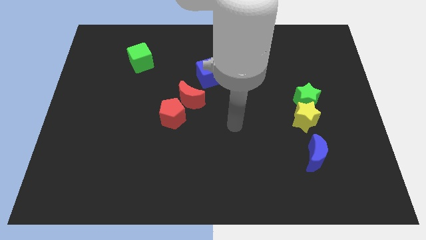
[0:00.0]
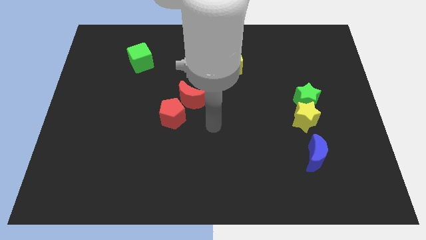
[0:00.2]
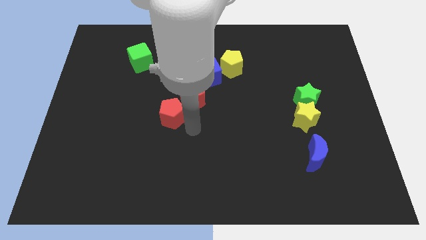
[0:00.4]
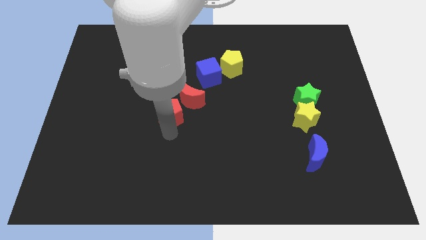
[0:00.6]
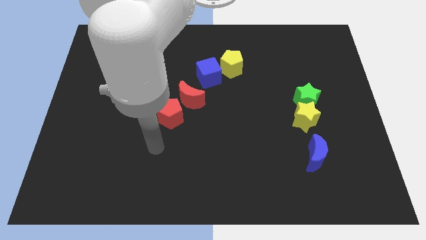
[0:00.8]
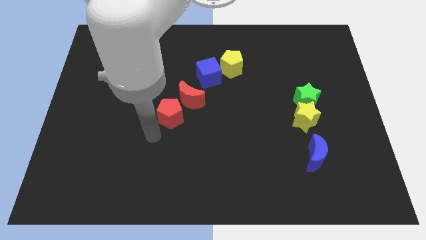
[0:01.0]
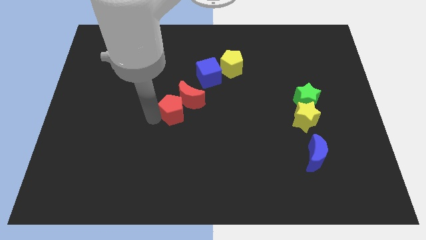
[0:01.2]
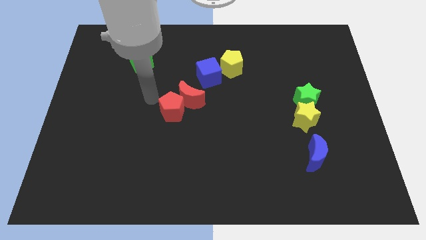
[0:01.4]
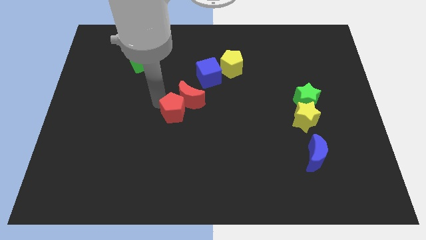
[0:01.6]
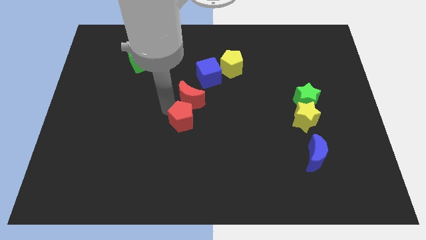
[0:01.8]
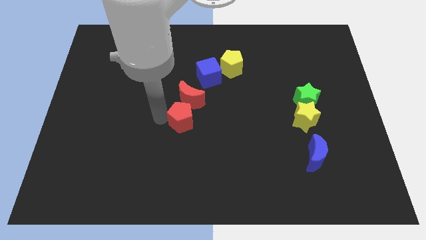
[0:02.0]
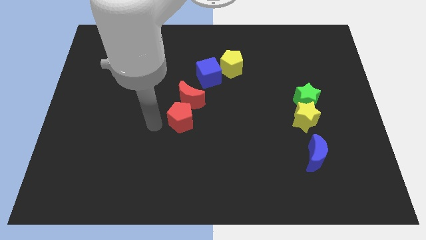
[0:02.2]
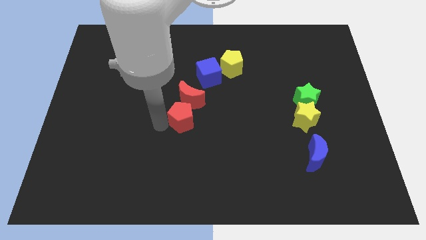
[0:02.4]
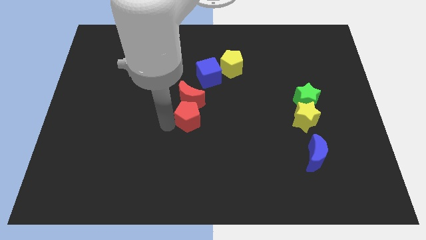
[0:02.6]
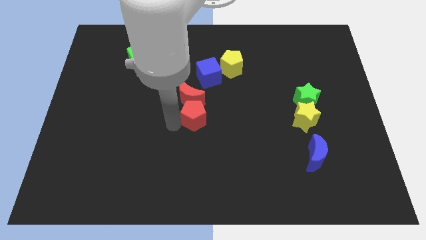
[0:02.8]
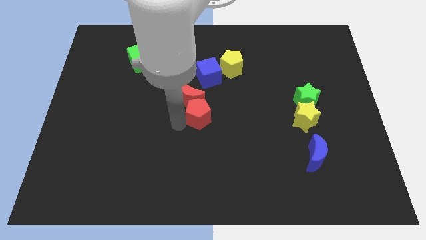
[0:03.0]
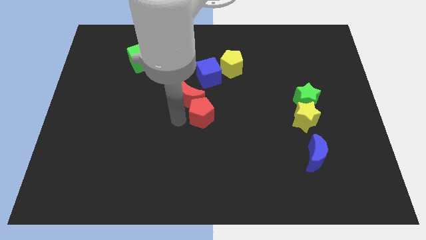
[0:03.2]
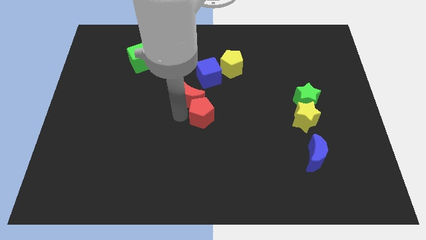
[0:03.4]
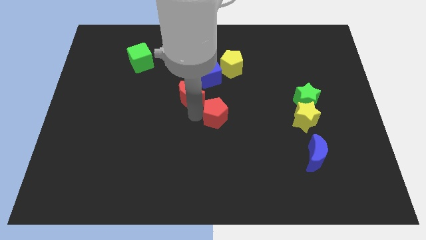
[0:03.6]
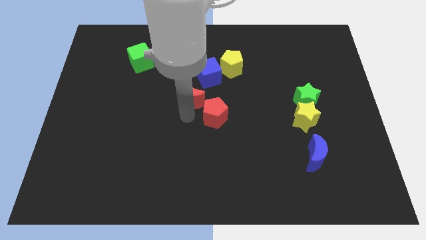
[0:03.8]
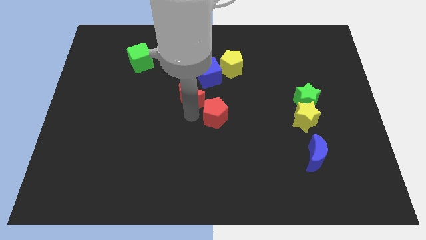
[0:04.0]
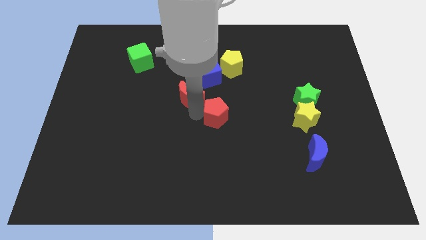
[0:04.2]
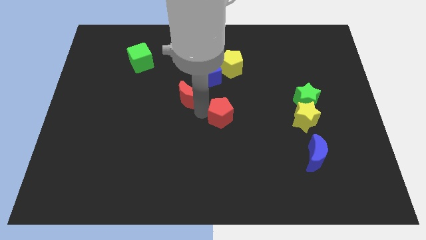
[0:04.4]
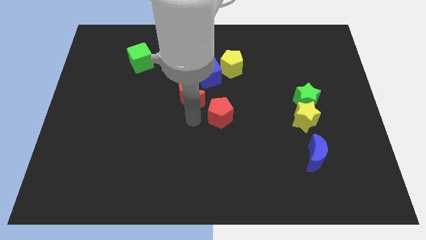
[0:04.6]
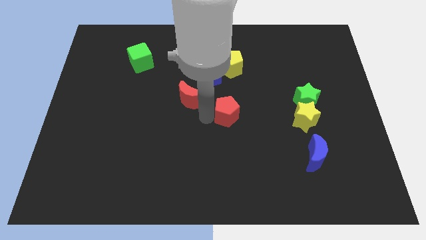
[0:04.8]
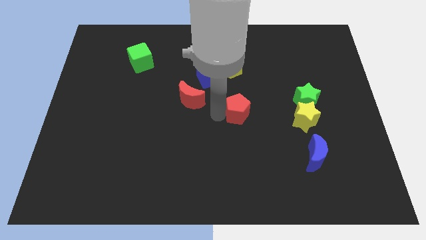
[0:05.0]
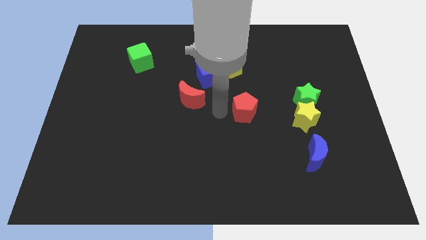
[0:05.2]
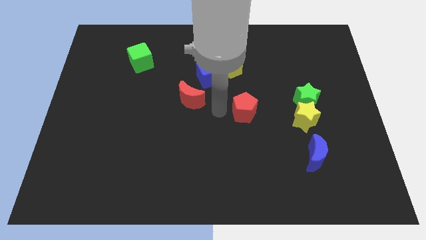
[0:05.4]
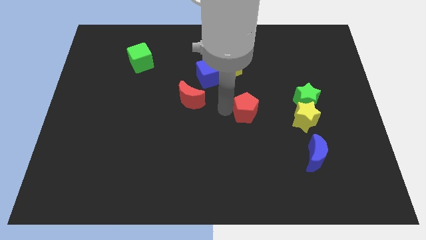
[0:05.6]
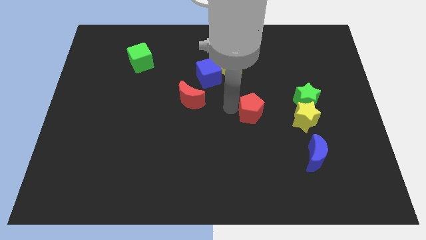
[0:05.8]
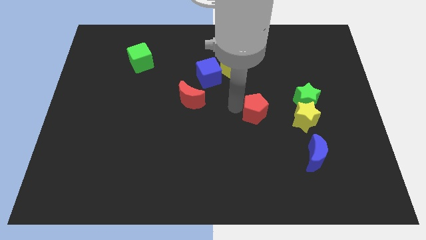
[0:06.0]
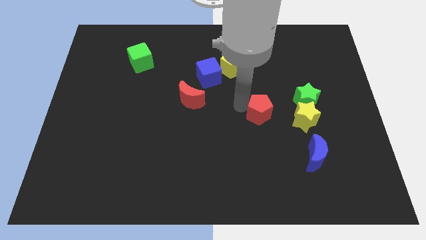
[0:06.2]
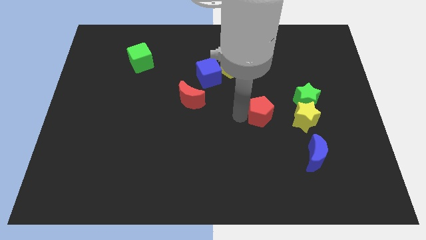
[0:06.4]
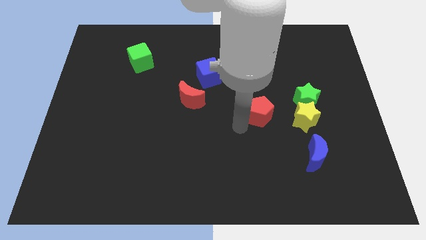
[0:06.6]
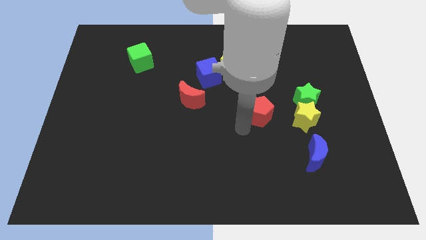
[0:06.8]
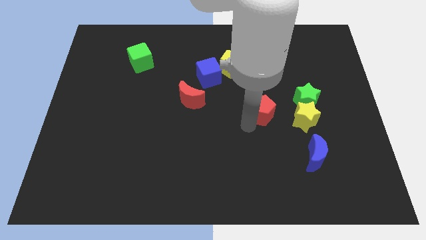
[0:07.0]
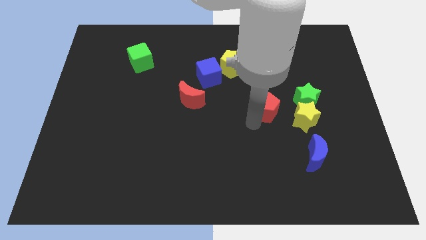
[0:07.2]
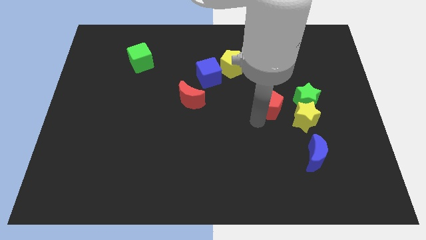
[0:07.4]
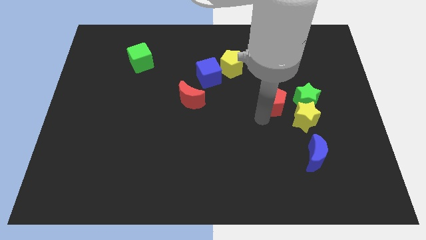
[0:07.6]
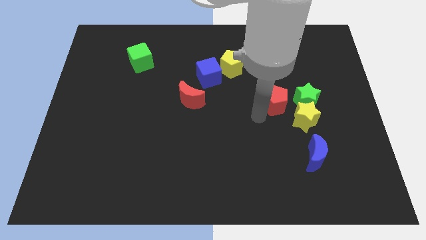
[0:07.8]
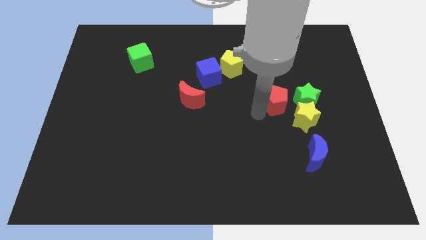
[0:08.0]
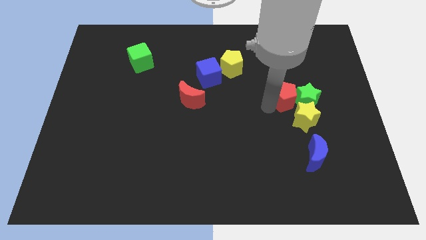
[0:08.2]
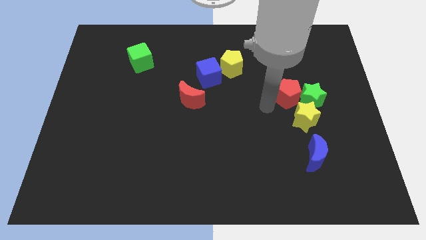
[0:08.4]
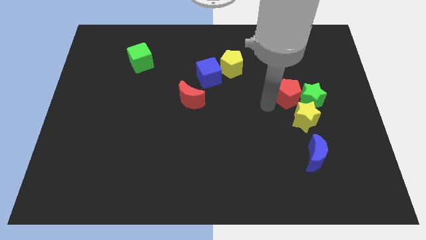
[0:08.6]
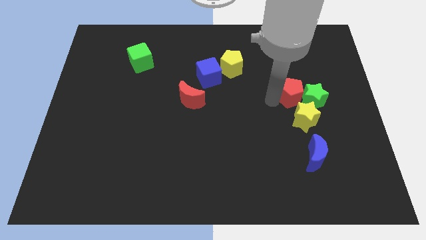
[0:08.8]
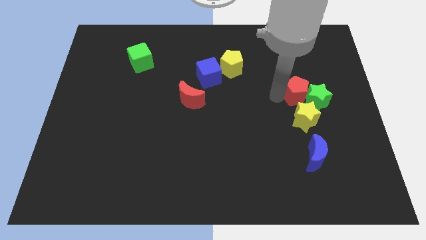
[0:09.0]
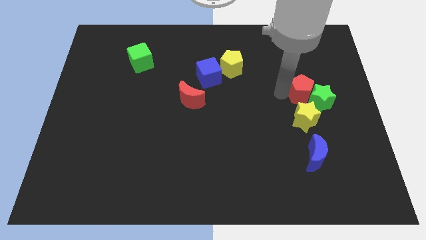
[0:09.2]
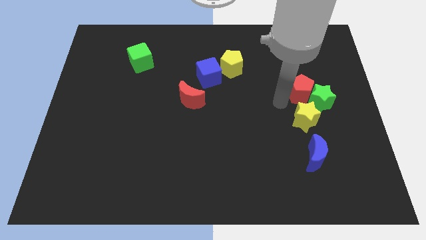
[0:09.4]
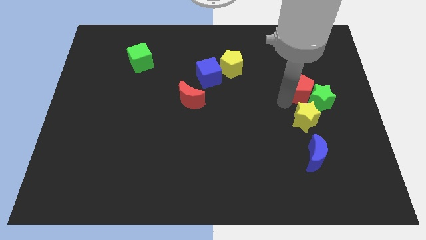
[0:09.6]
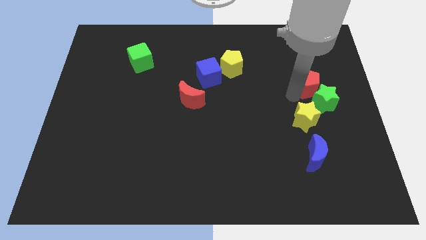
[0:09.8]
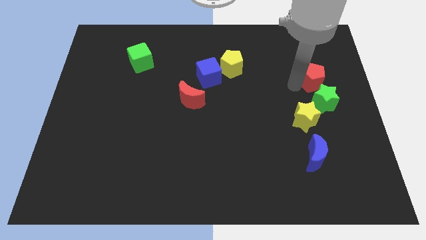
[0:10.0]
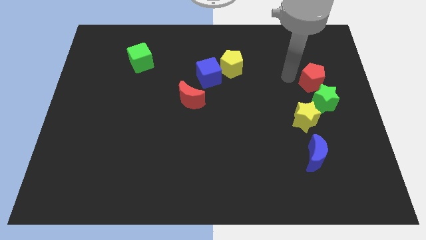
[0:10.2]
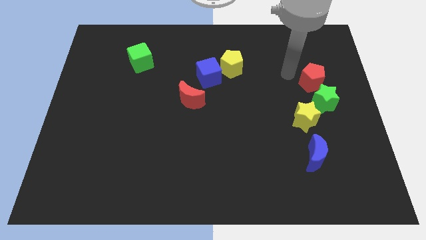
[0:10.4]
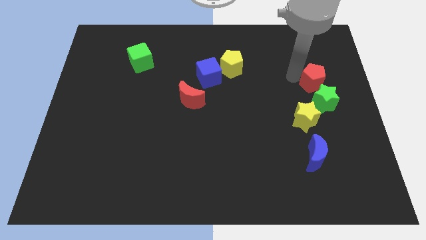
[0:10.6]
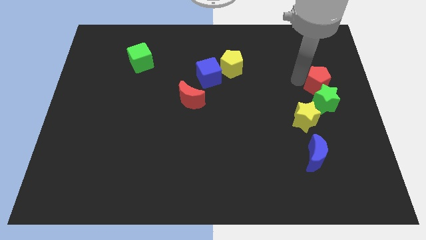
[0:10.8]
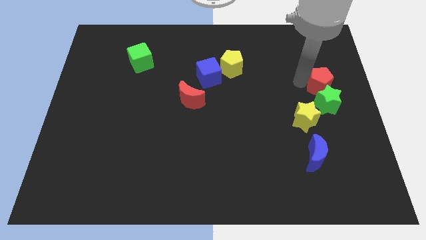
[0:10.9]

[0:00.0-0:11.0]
slide the red pentagon to the right side

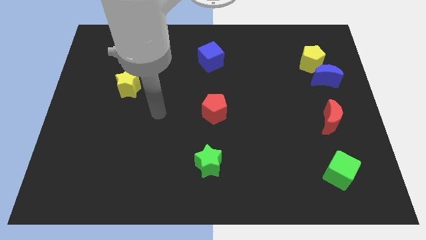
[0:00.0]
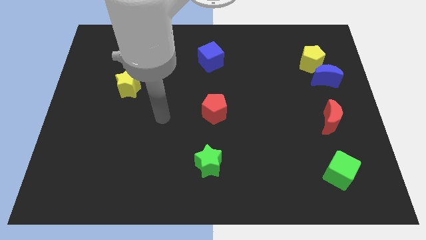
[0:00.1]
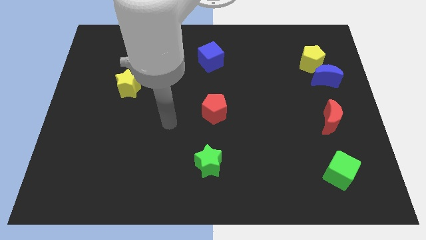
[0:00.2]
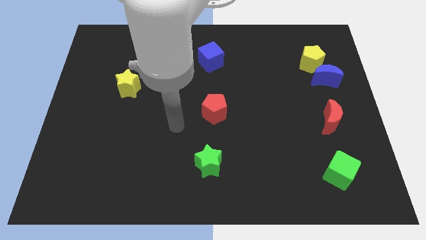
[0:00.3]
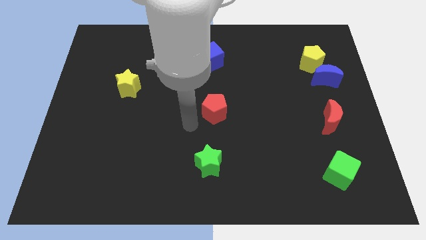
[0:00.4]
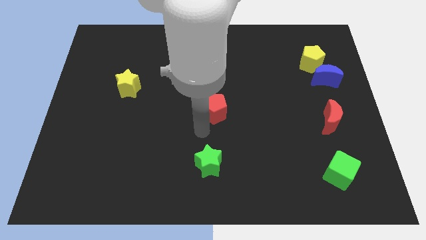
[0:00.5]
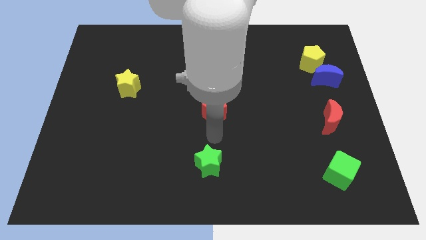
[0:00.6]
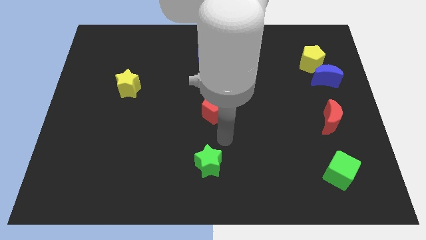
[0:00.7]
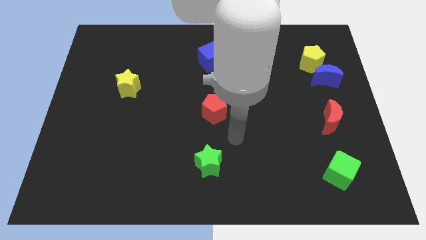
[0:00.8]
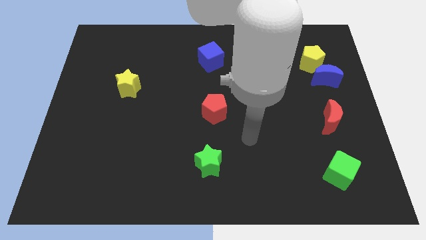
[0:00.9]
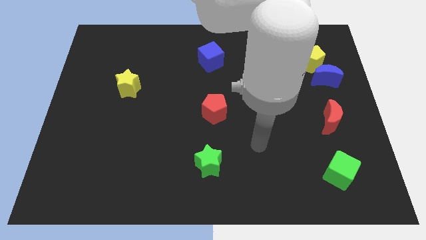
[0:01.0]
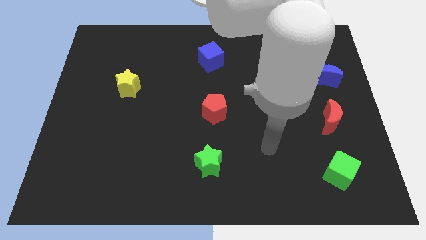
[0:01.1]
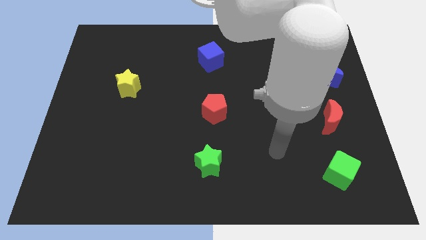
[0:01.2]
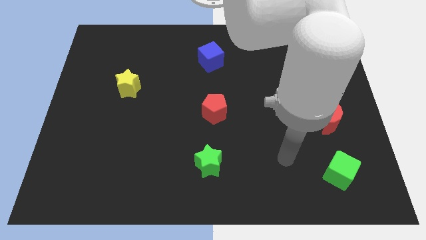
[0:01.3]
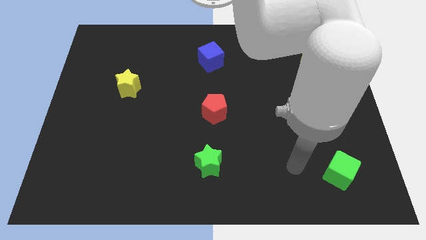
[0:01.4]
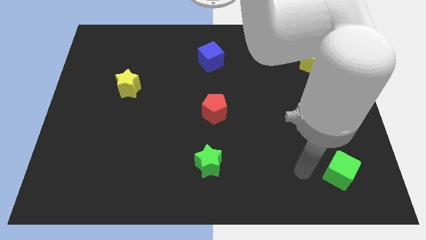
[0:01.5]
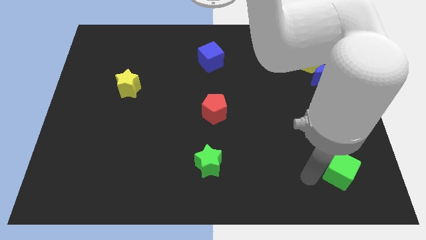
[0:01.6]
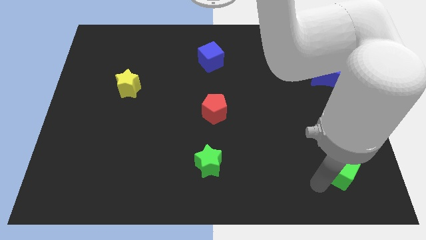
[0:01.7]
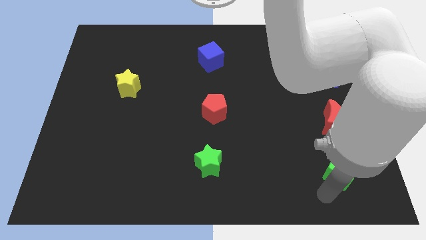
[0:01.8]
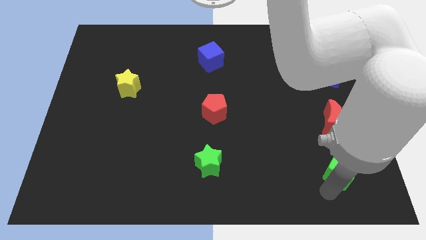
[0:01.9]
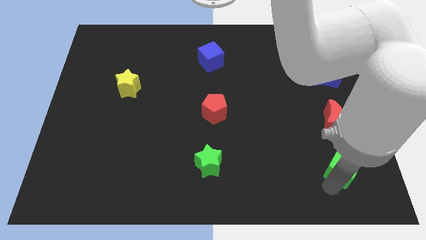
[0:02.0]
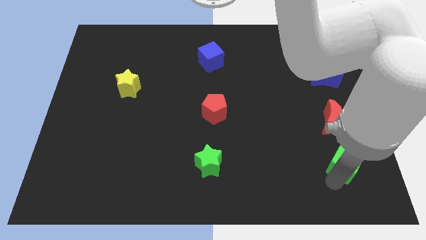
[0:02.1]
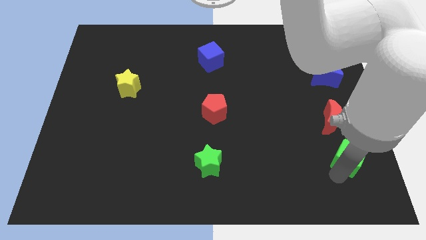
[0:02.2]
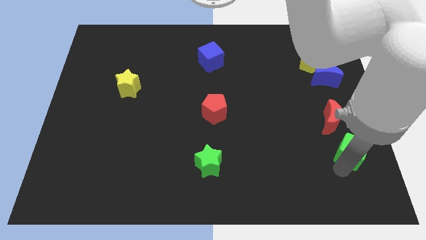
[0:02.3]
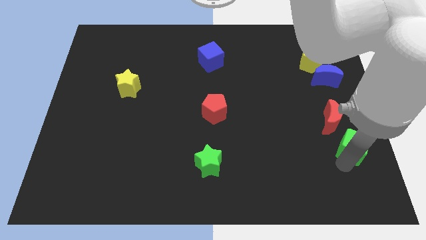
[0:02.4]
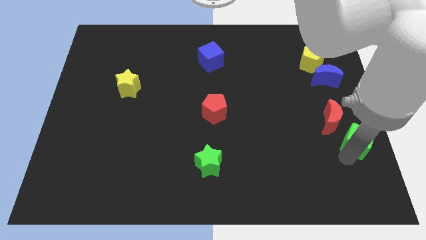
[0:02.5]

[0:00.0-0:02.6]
move the green cube to the center right
